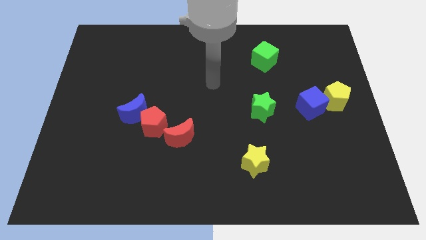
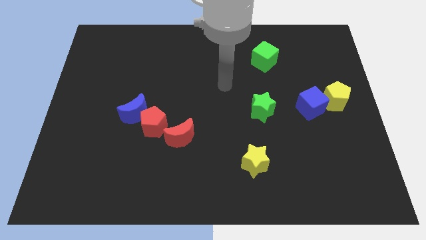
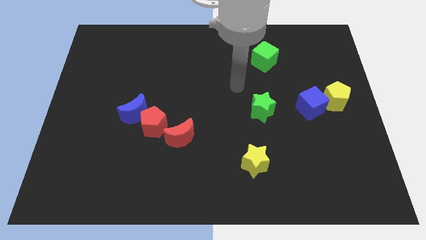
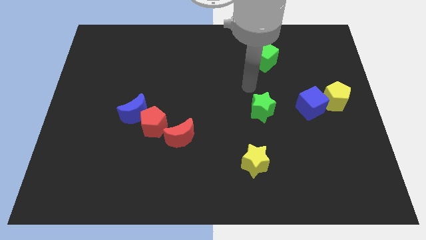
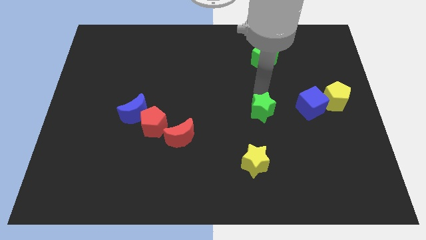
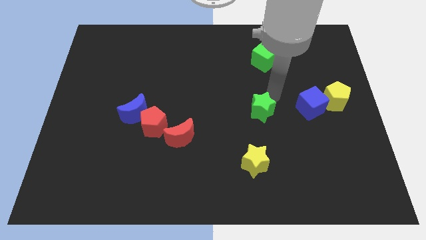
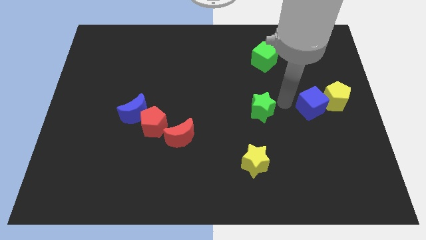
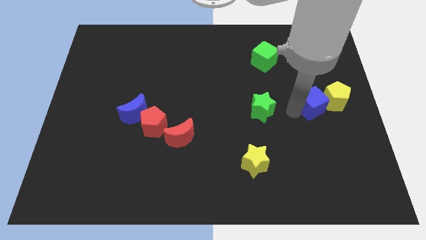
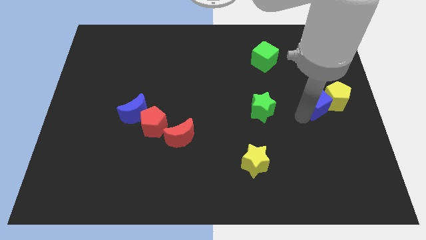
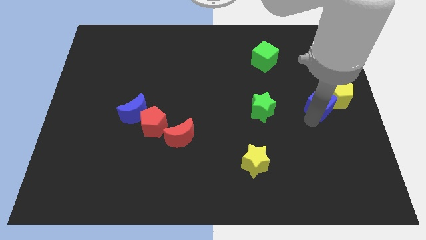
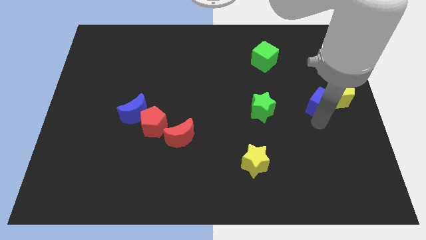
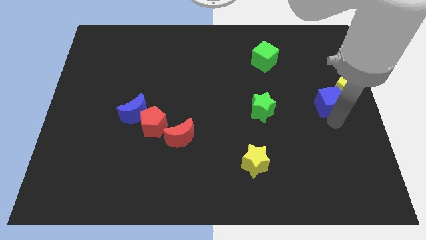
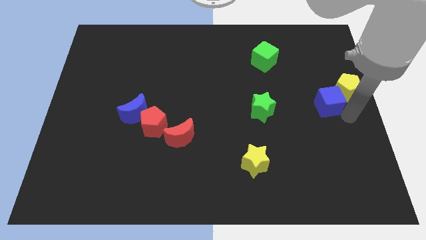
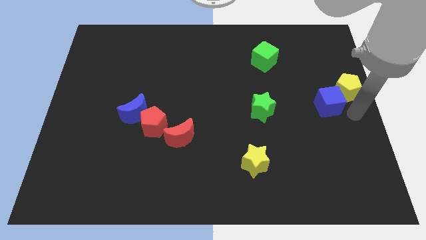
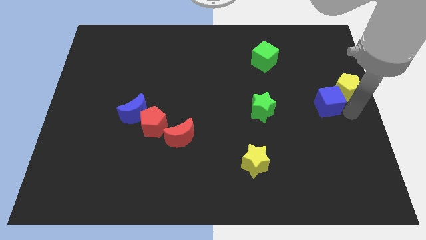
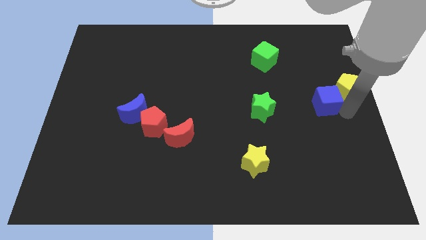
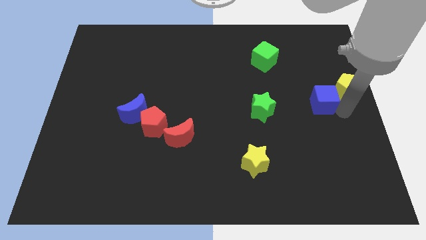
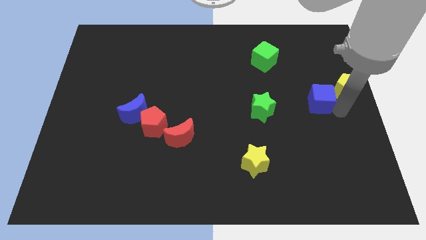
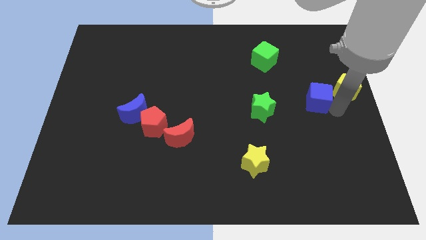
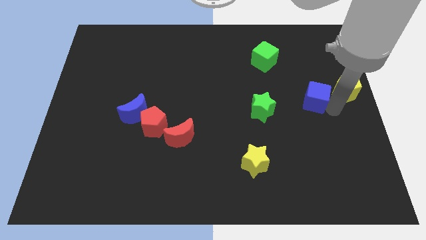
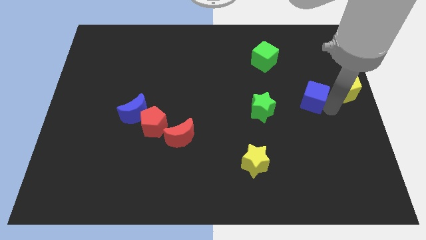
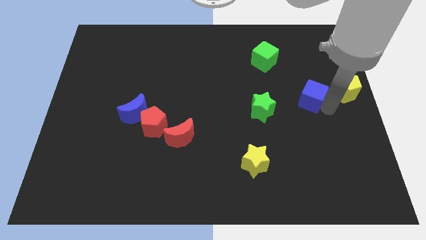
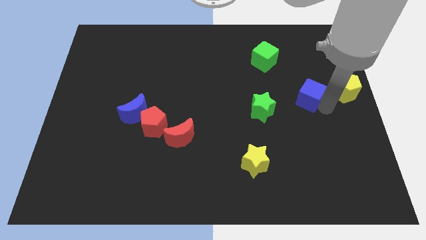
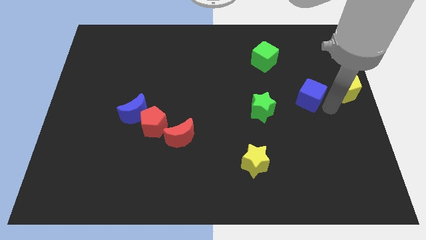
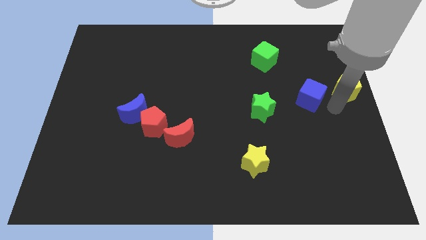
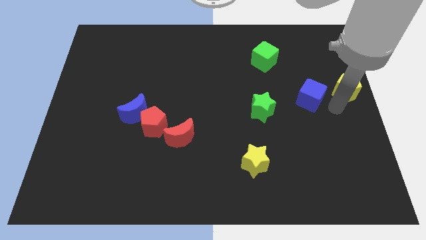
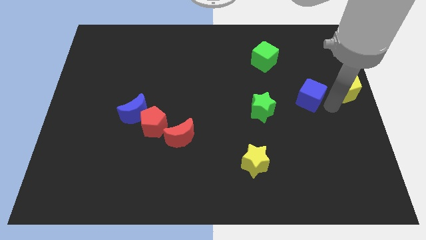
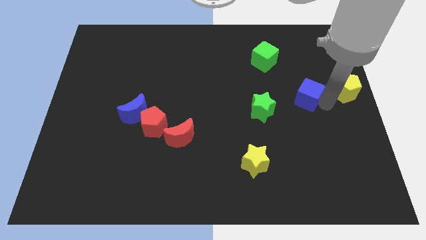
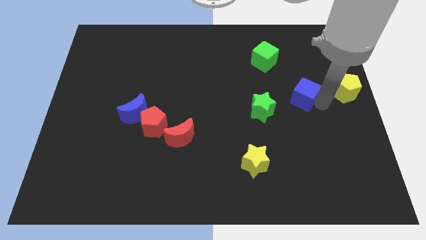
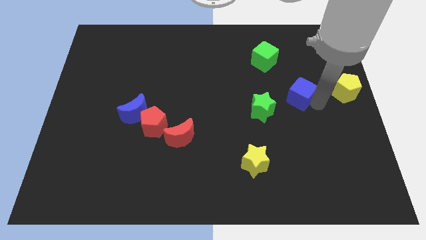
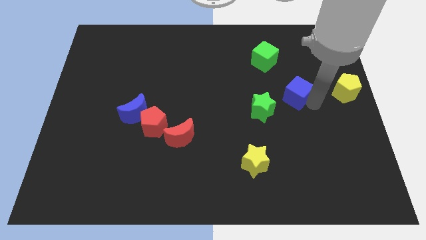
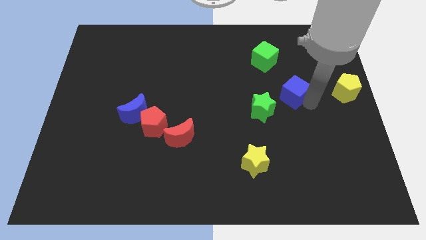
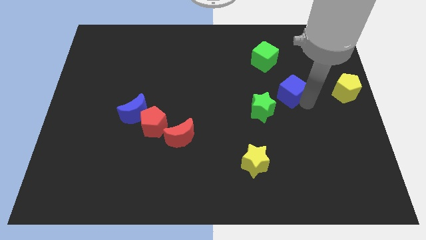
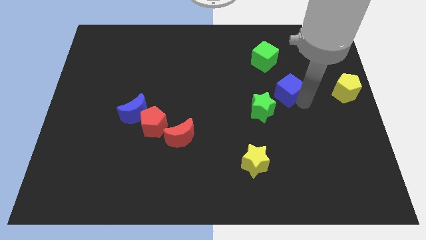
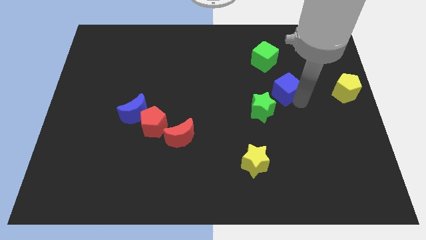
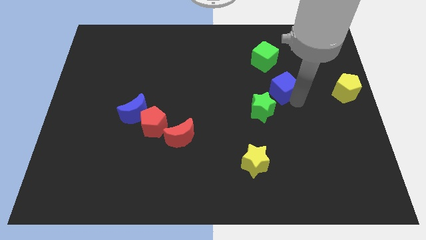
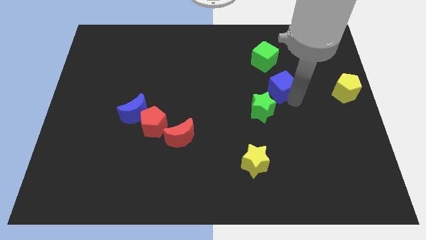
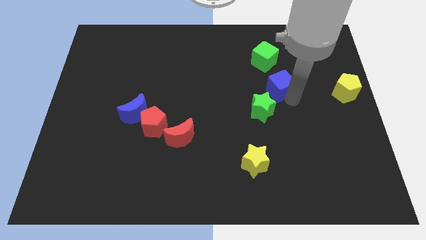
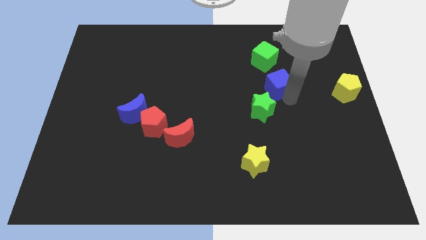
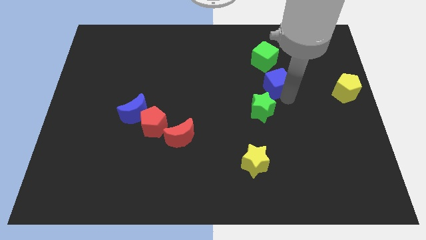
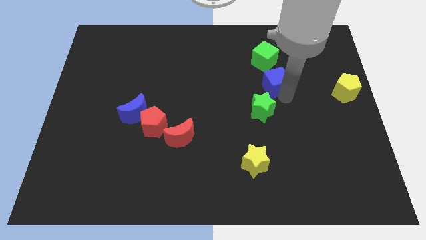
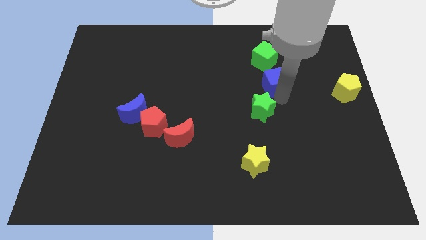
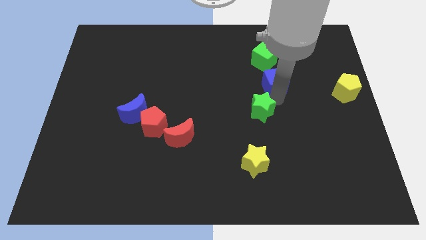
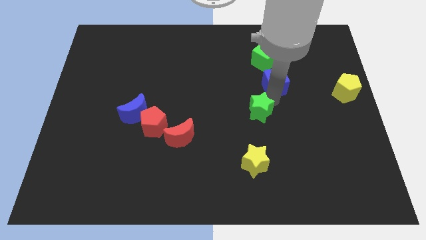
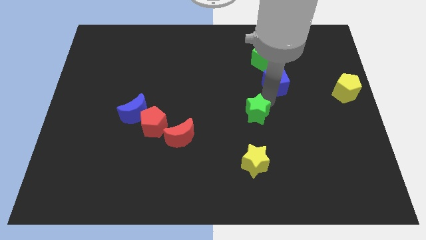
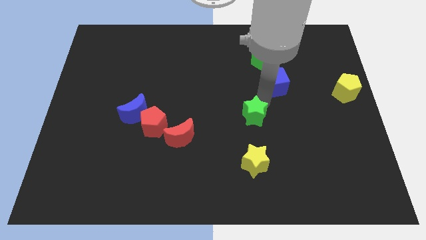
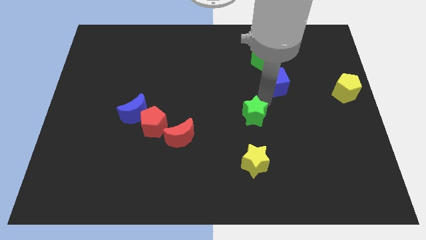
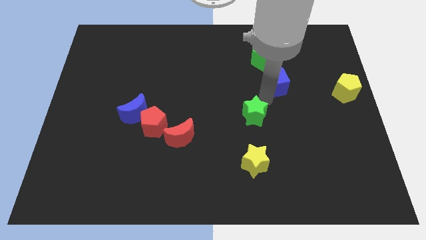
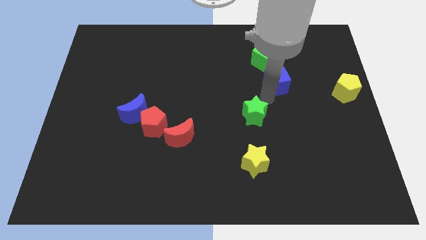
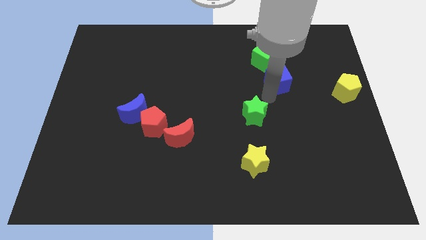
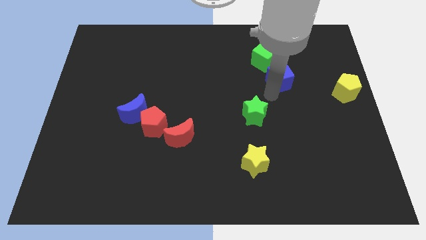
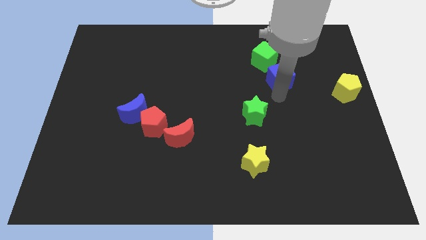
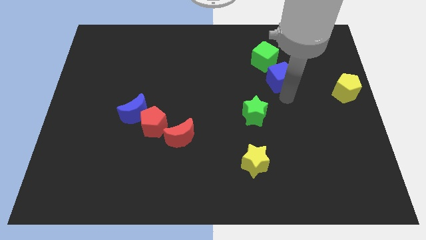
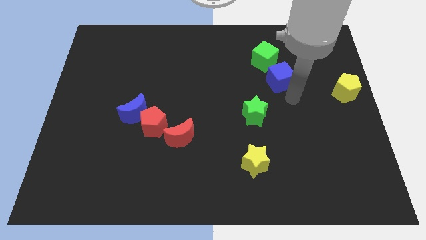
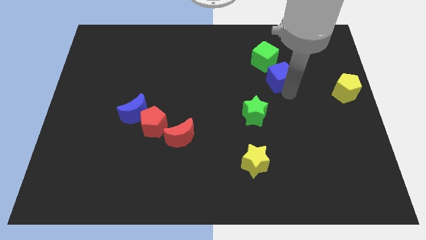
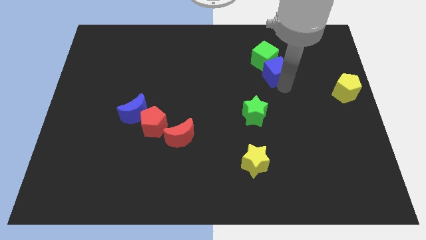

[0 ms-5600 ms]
move the blue cube to the green cube

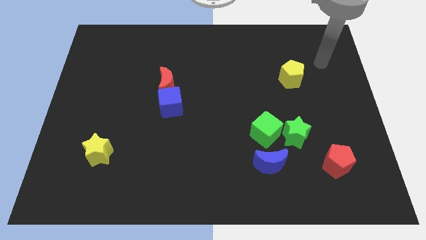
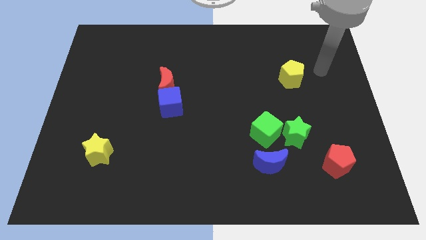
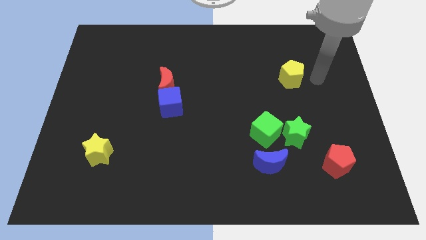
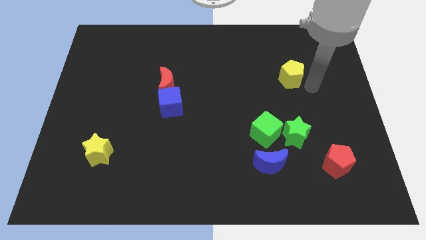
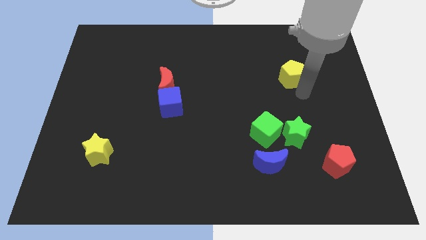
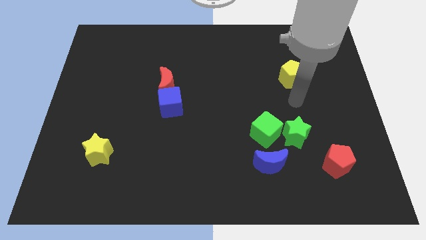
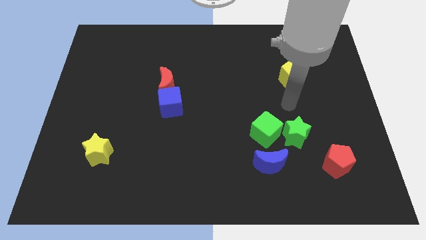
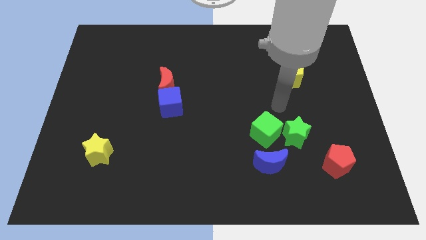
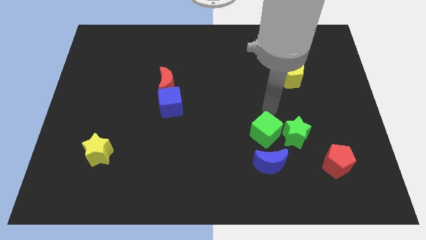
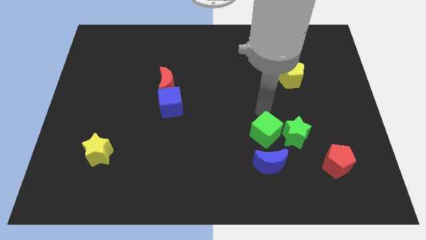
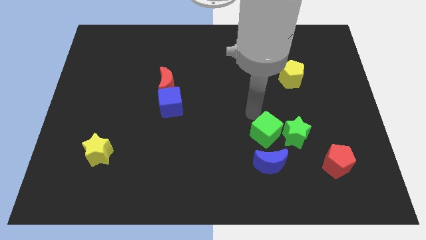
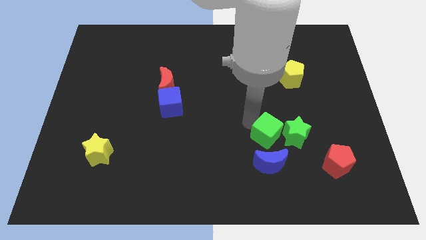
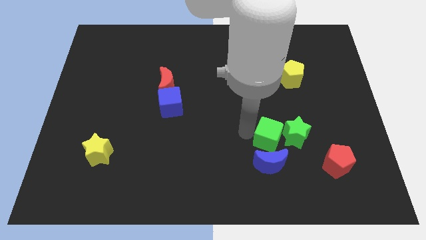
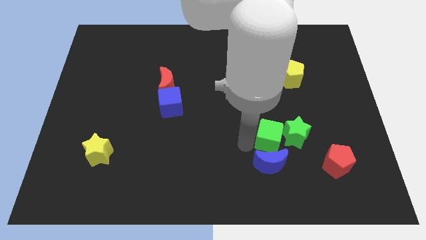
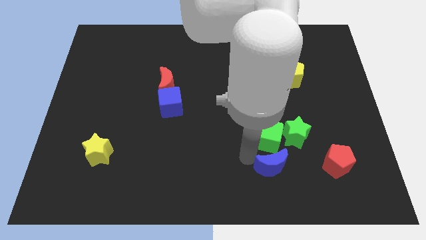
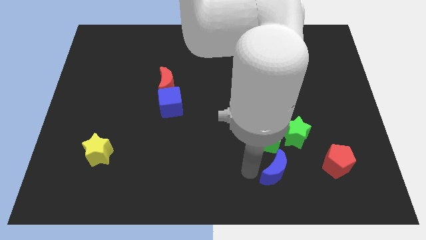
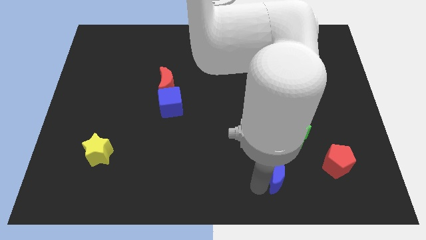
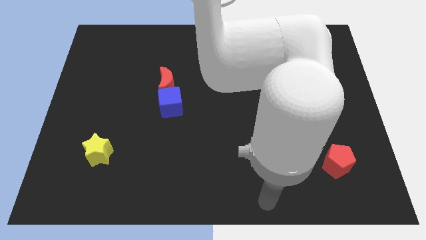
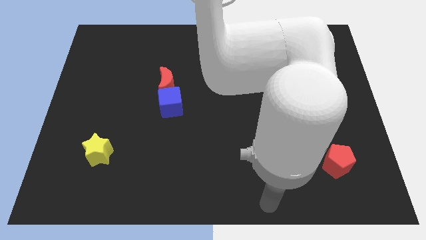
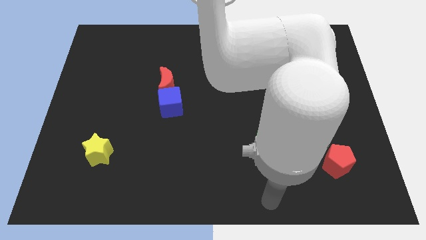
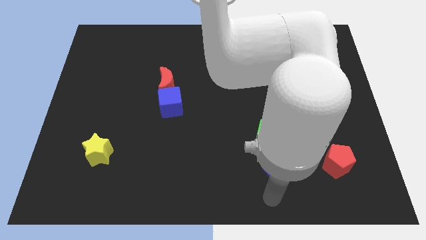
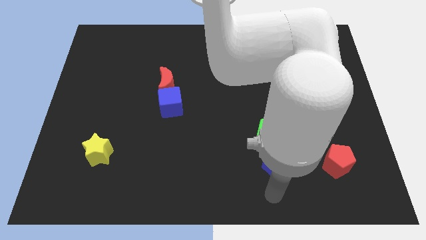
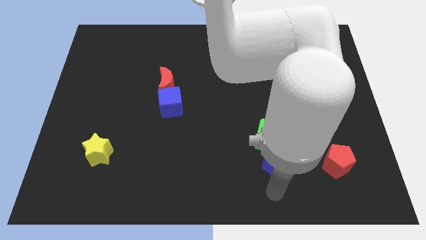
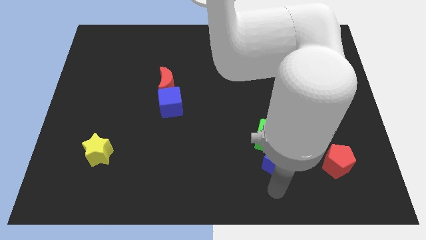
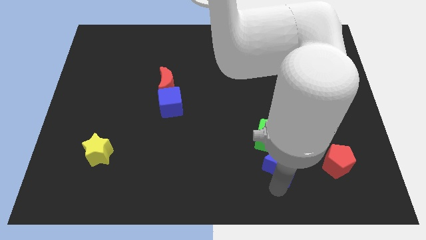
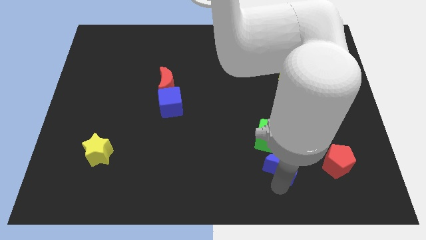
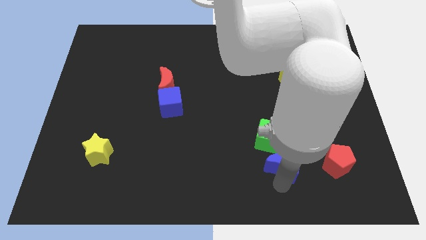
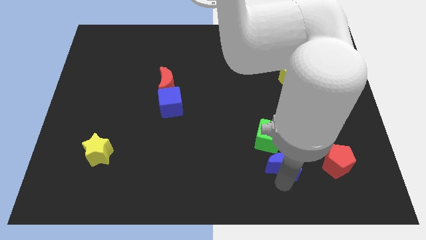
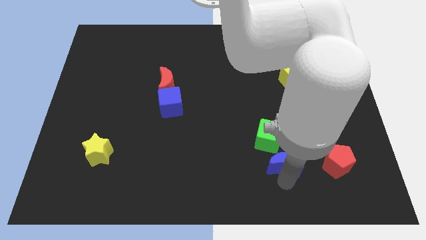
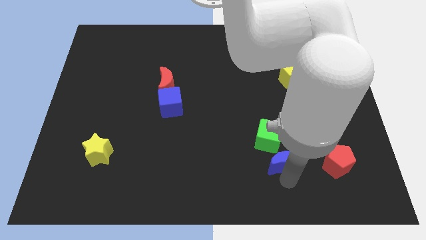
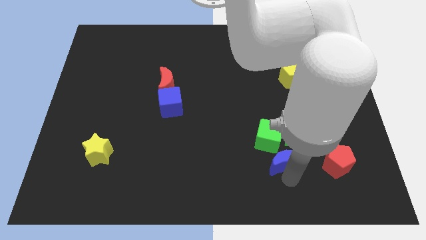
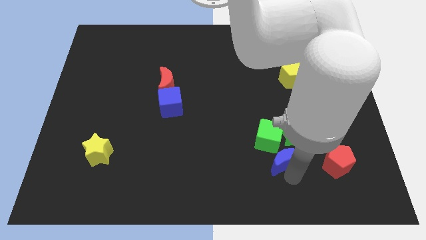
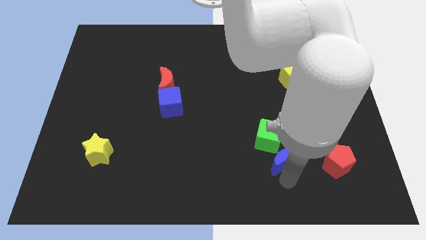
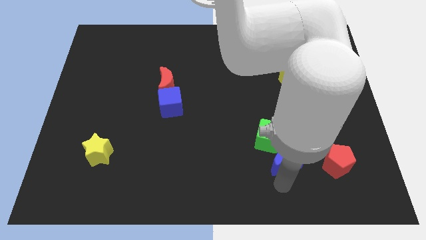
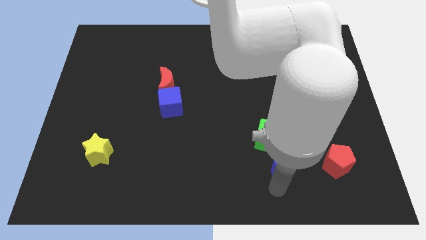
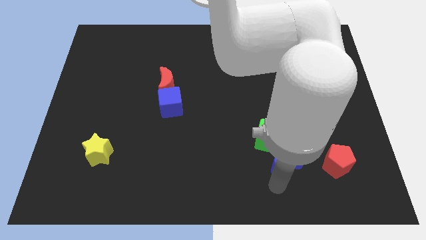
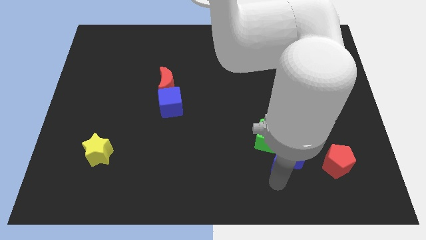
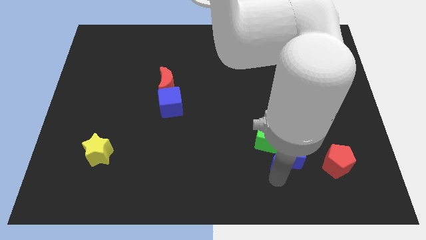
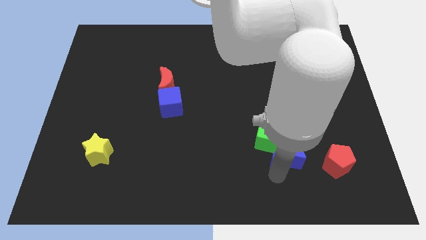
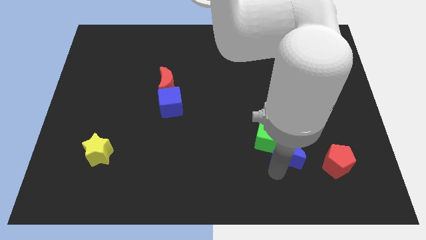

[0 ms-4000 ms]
put the blue moon towards the green star
